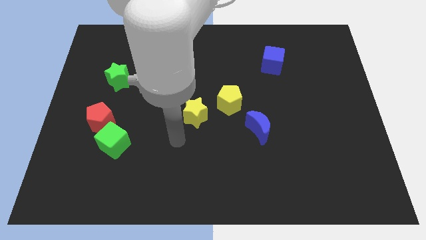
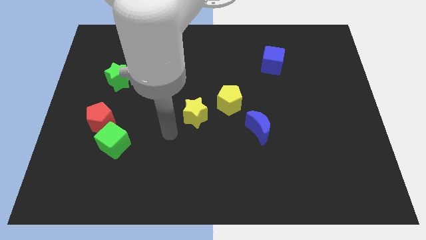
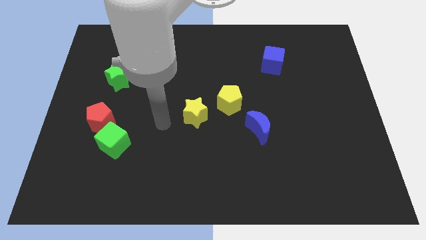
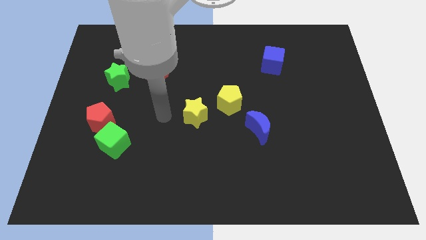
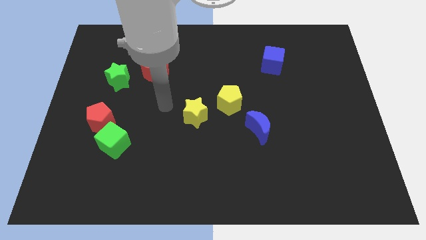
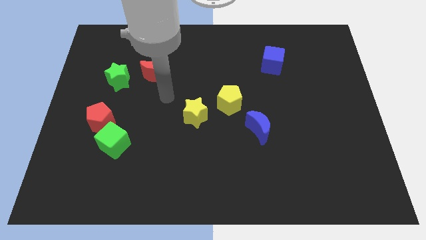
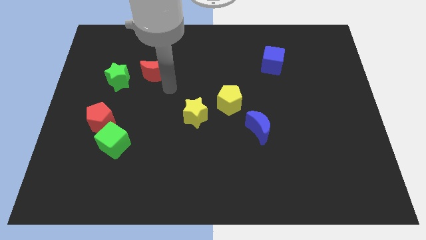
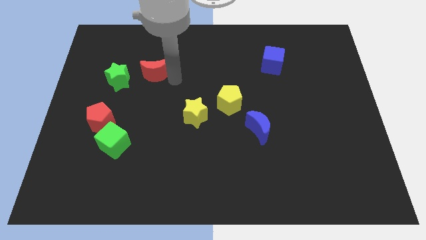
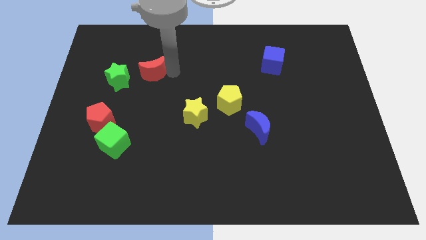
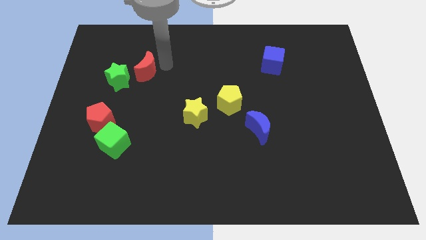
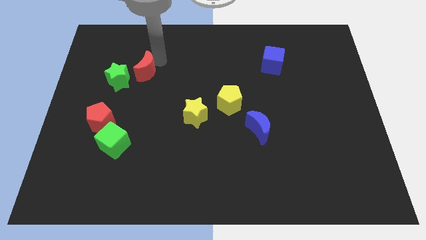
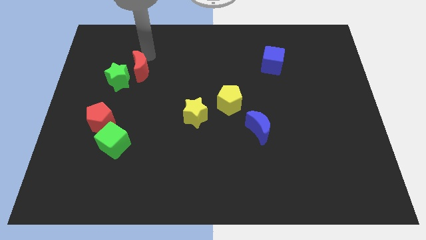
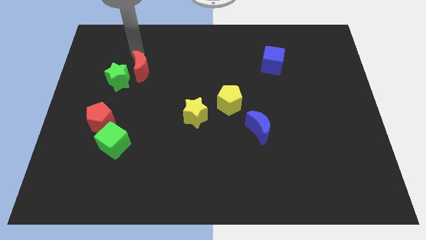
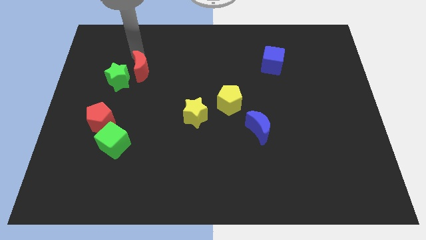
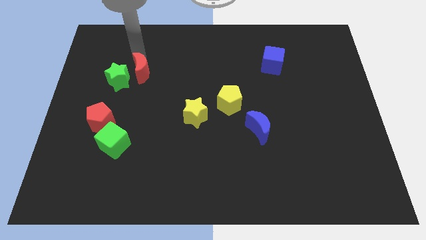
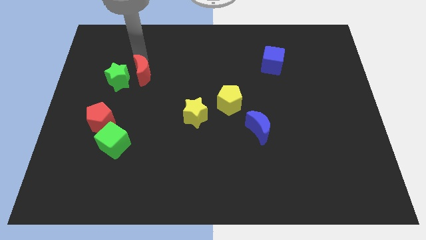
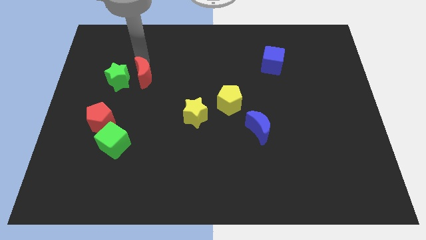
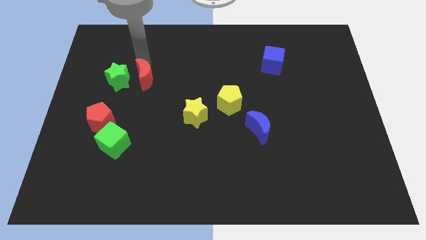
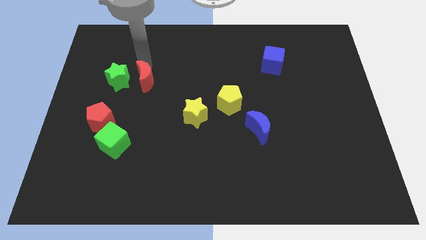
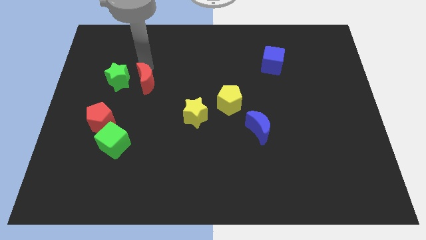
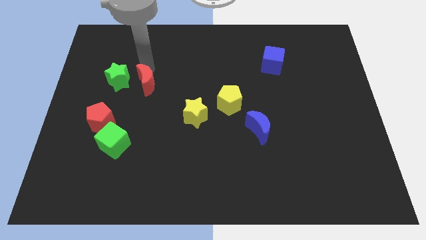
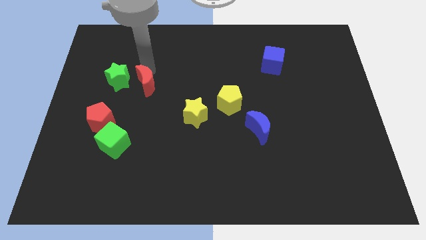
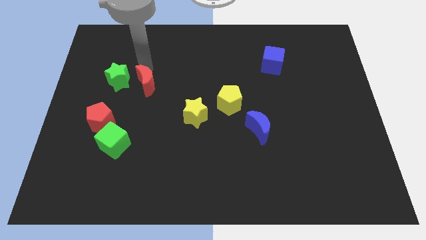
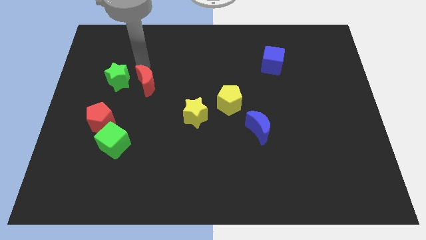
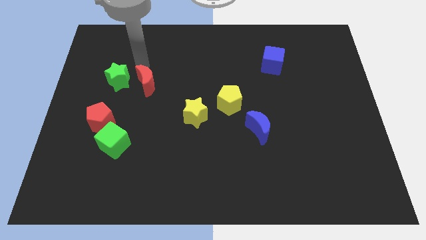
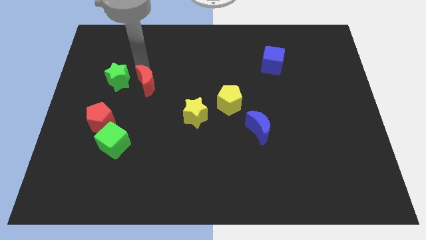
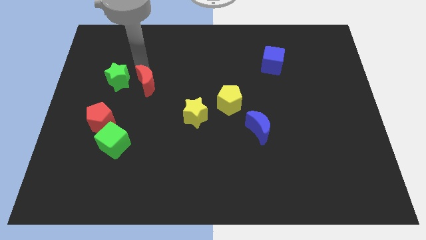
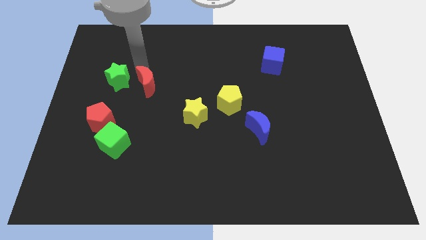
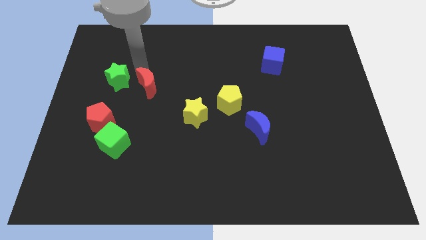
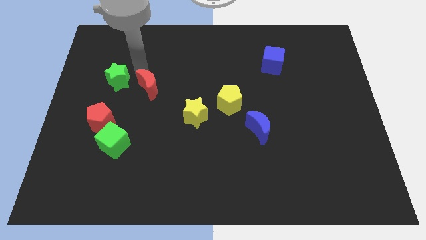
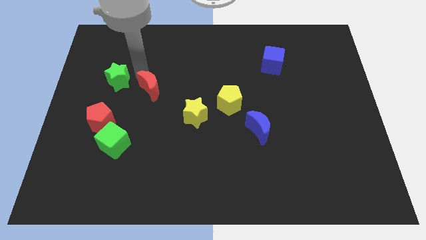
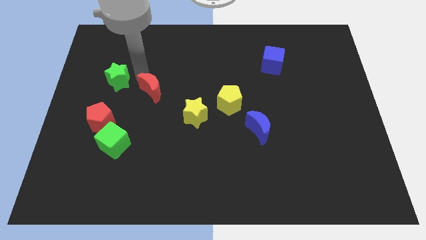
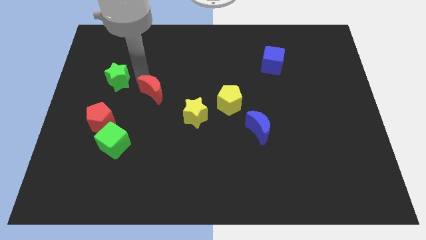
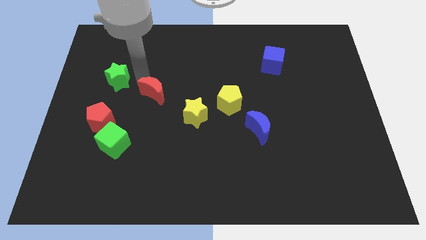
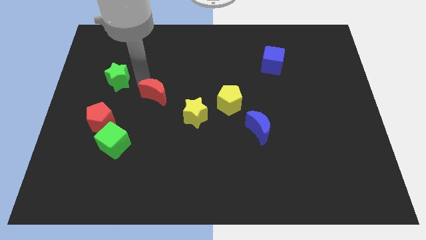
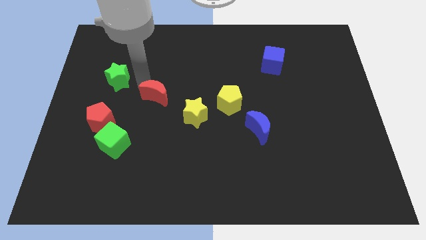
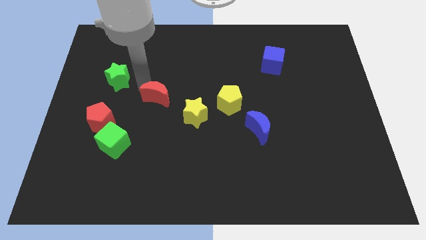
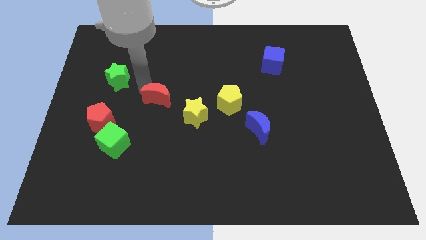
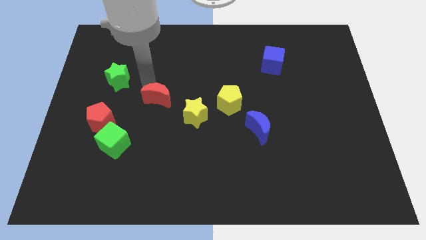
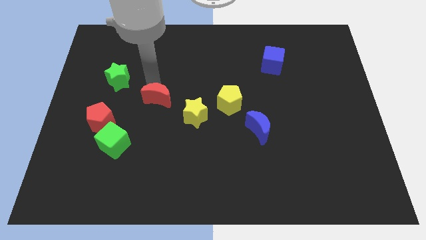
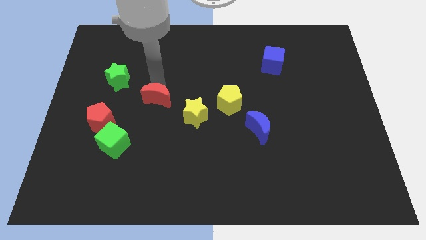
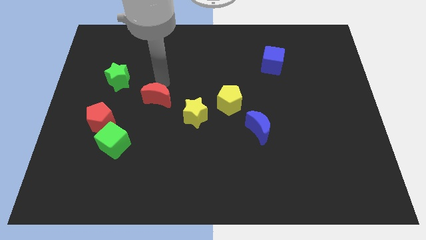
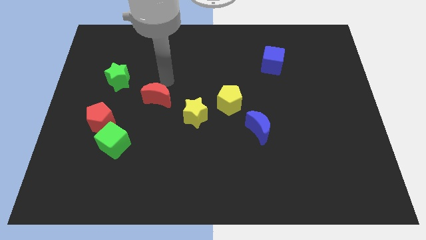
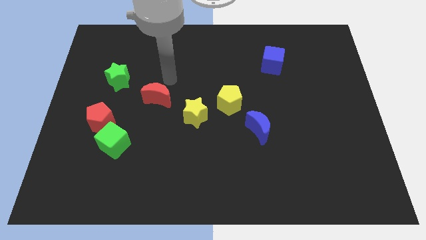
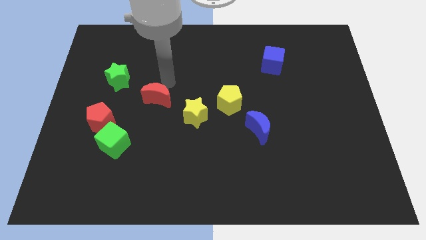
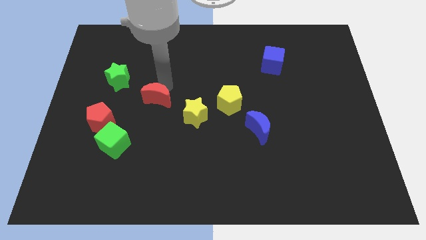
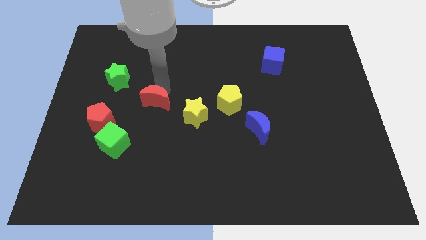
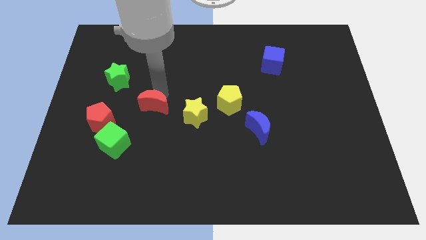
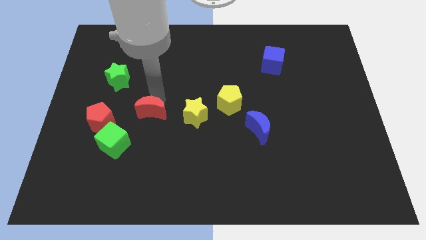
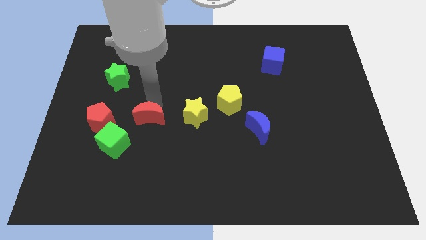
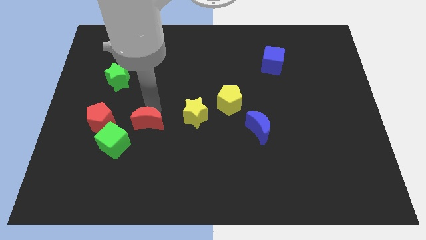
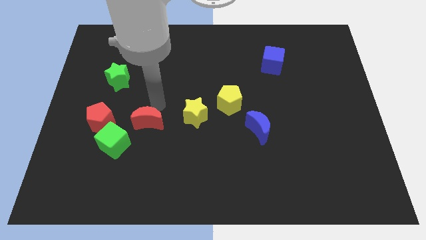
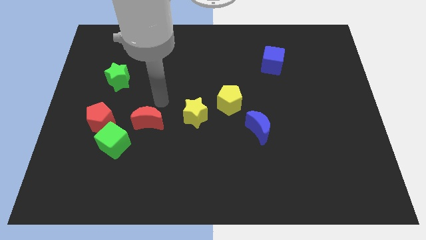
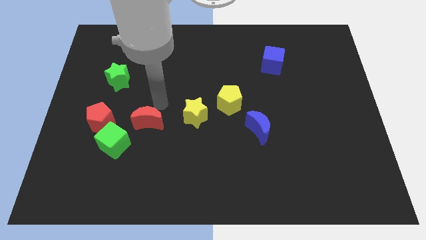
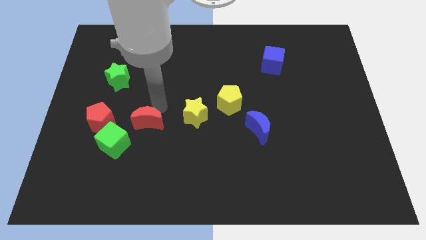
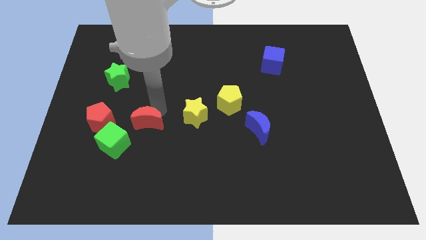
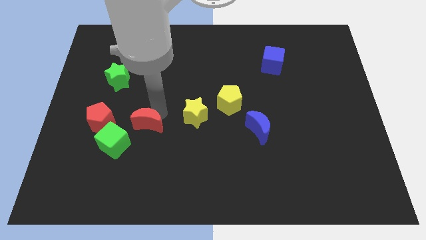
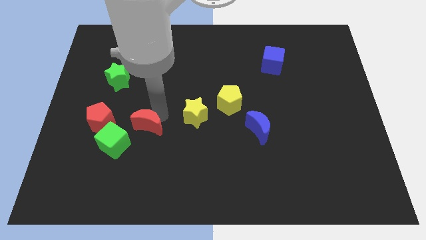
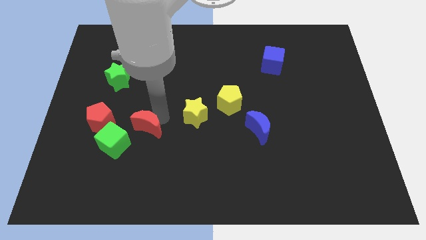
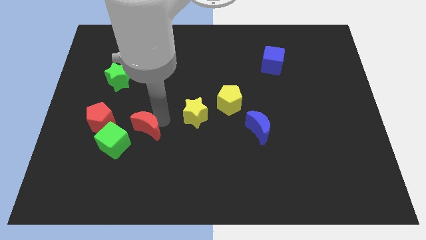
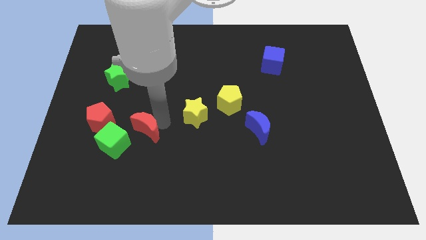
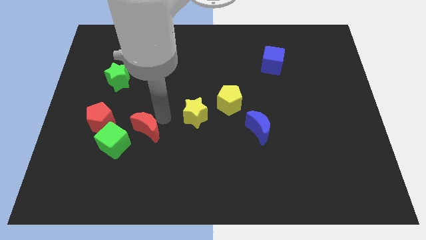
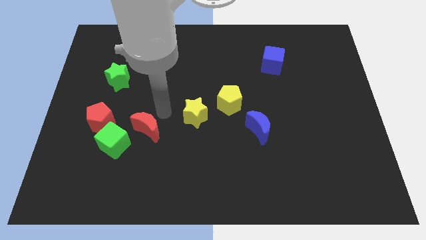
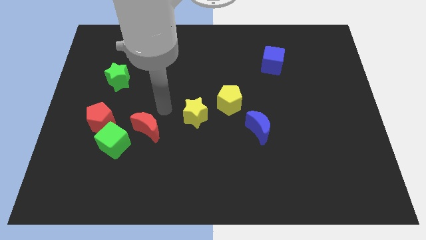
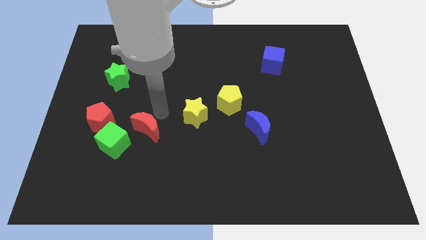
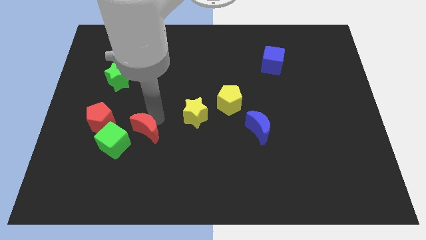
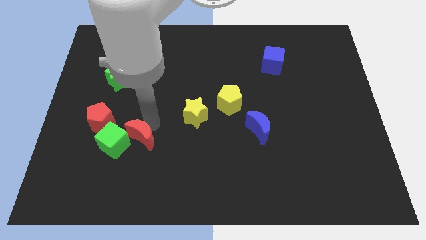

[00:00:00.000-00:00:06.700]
put the red moon diagonally down and to the right of the red pentagon
